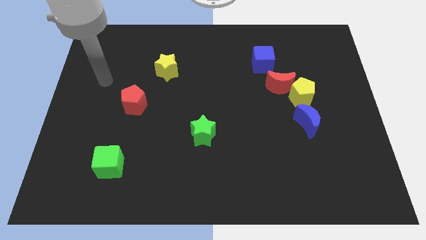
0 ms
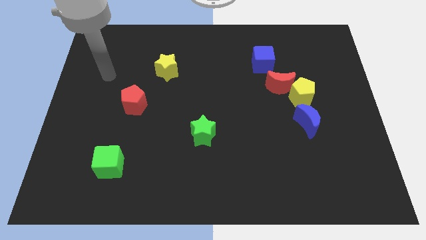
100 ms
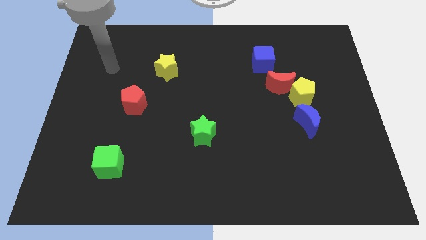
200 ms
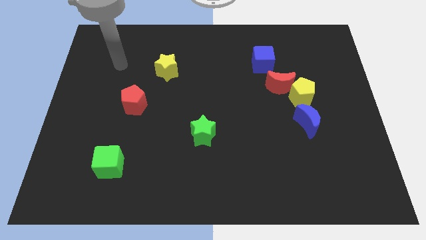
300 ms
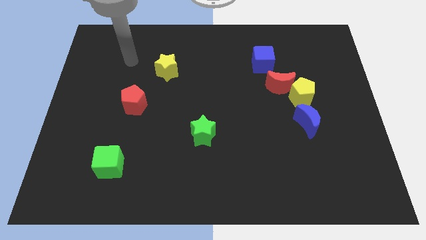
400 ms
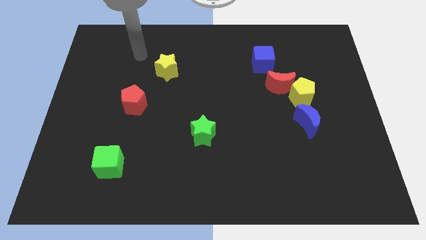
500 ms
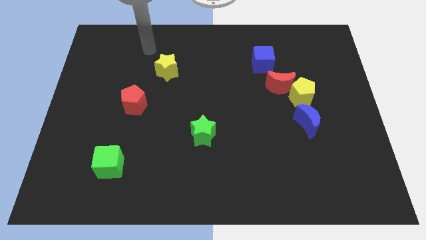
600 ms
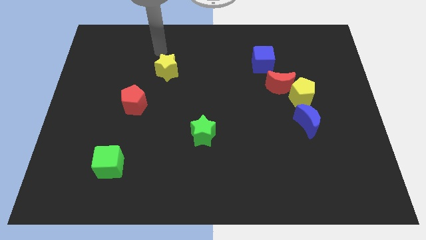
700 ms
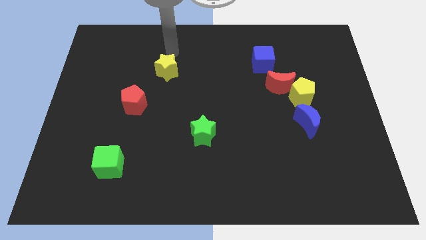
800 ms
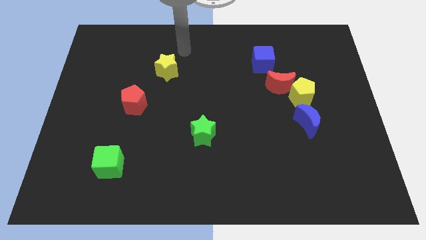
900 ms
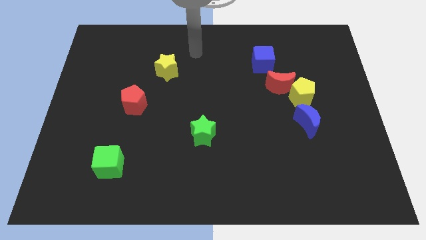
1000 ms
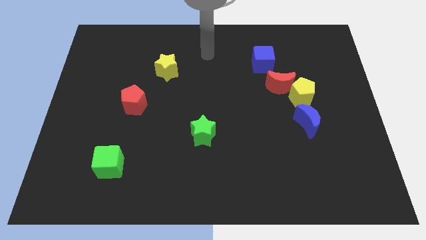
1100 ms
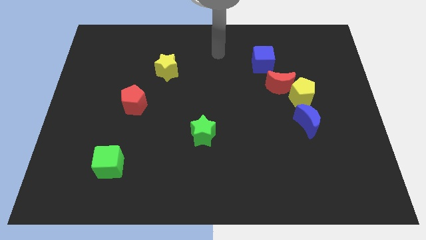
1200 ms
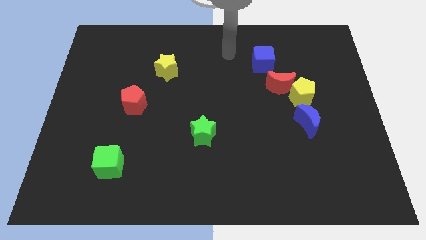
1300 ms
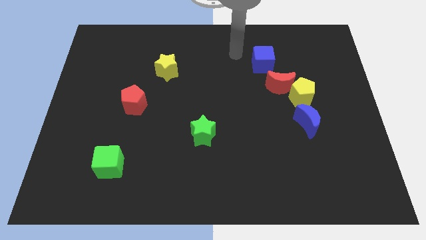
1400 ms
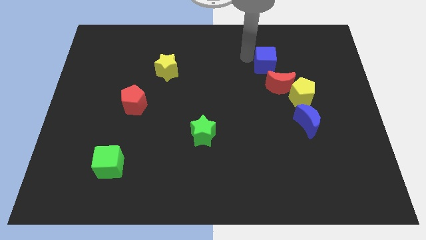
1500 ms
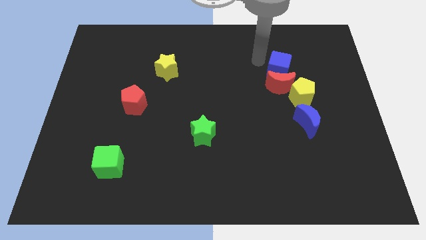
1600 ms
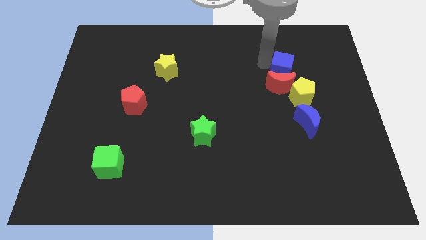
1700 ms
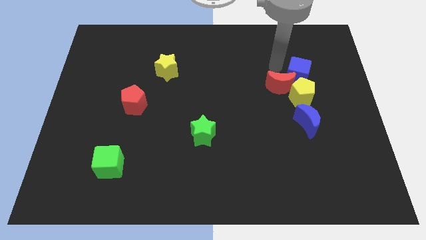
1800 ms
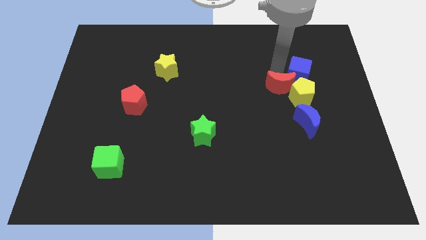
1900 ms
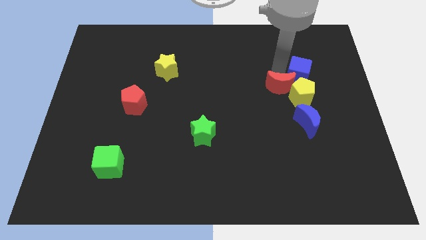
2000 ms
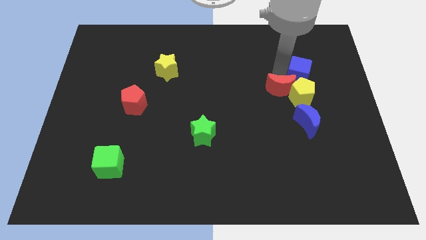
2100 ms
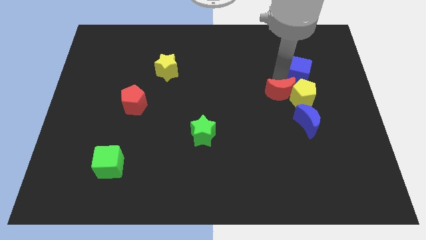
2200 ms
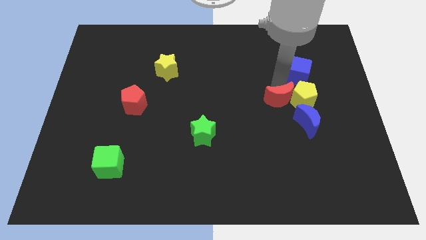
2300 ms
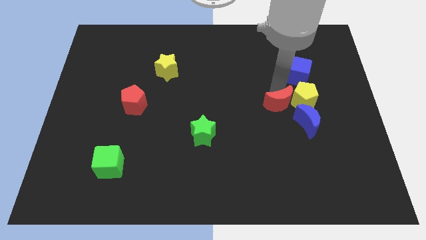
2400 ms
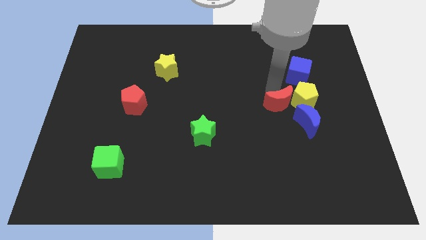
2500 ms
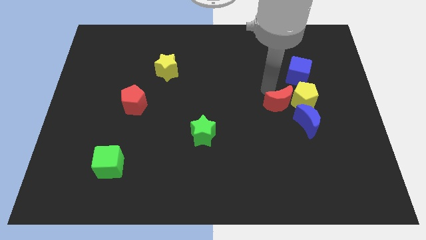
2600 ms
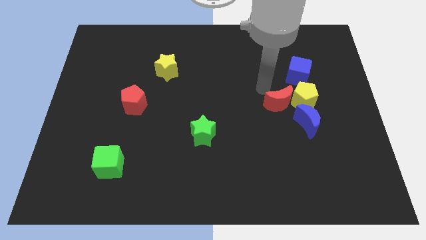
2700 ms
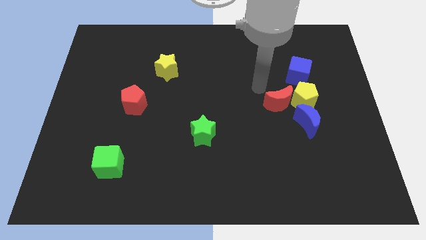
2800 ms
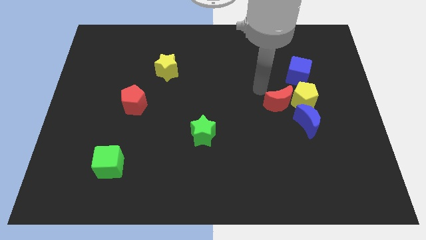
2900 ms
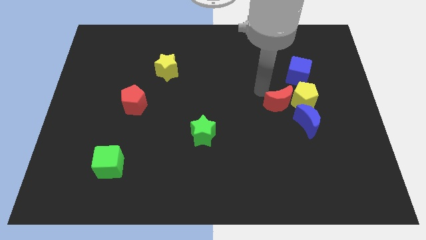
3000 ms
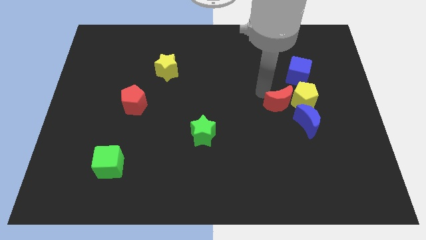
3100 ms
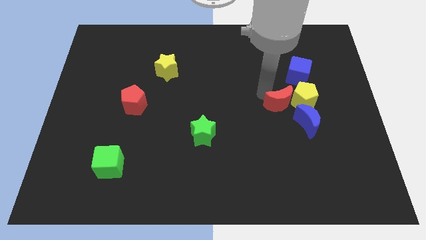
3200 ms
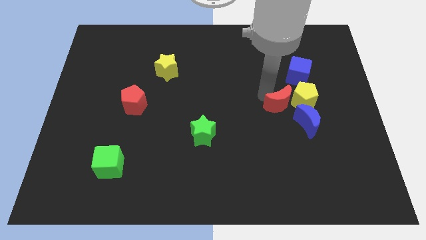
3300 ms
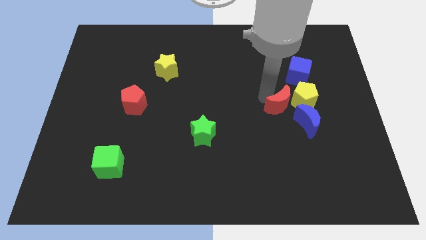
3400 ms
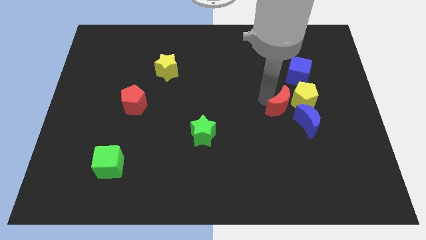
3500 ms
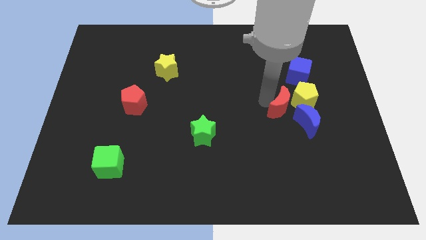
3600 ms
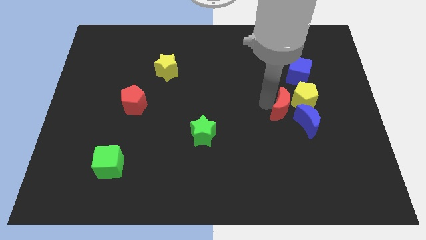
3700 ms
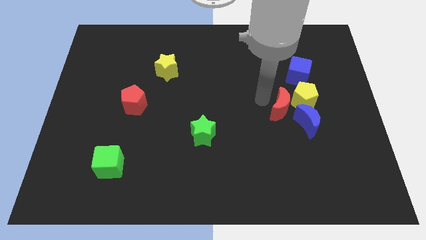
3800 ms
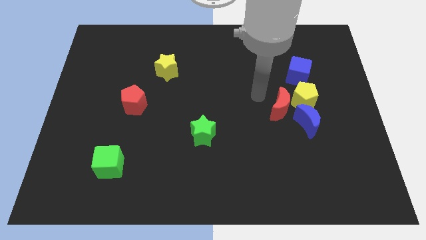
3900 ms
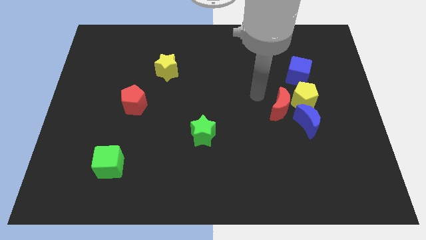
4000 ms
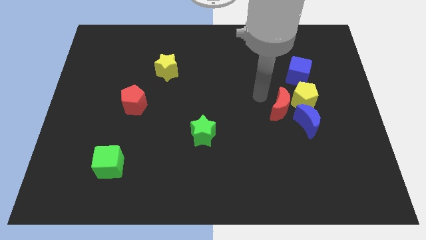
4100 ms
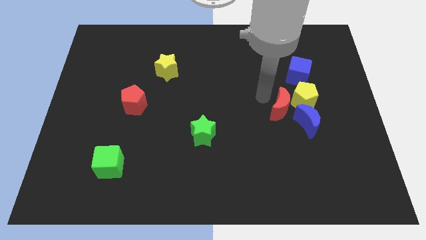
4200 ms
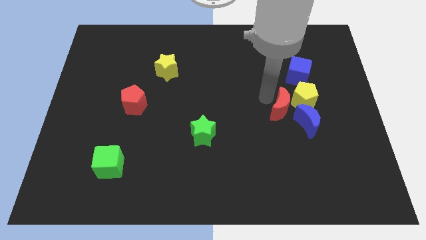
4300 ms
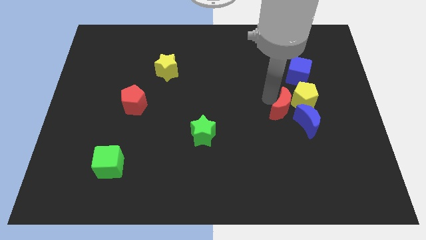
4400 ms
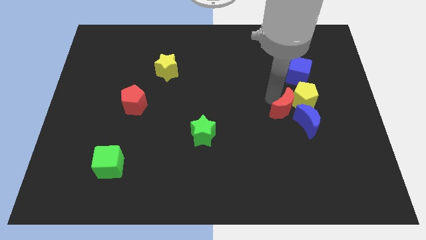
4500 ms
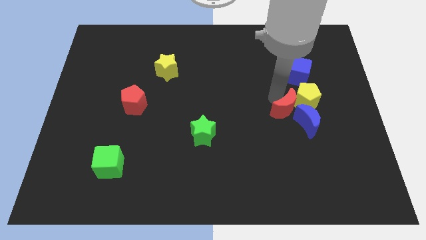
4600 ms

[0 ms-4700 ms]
push the red moon close to the blue moon

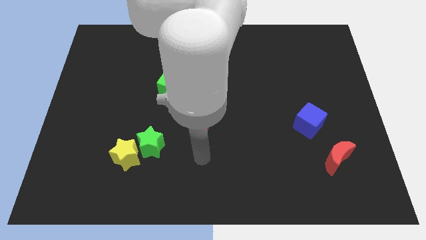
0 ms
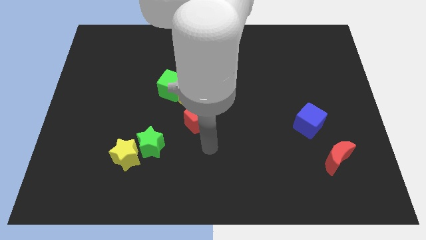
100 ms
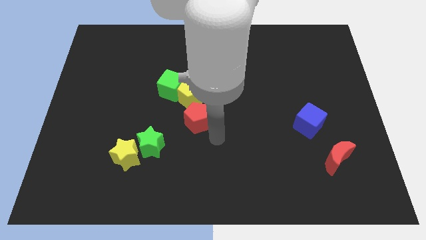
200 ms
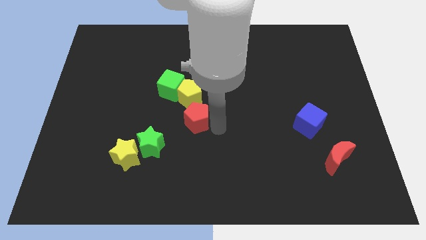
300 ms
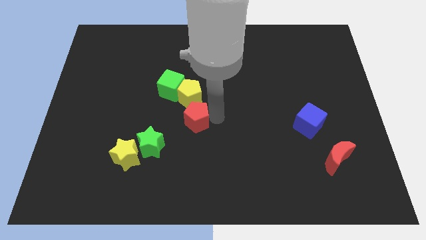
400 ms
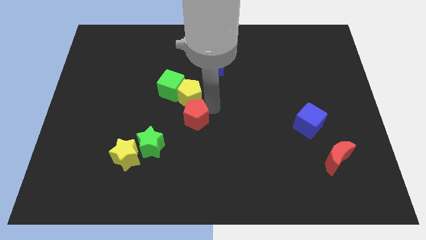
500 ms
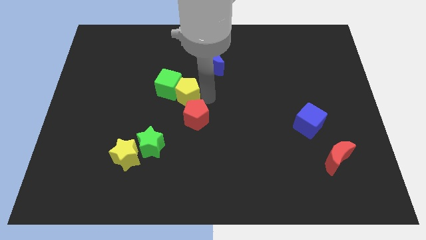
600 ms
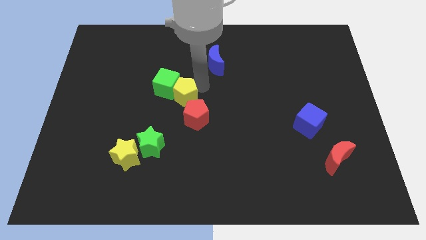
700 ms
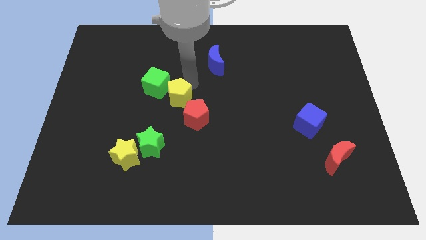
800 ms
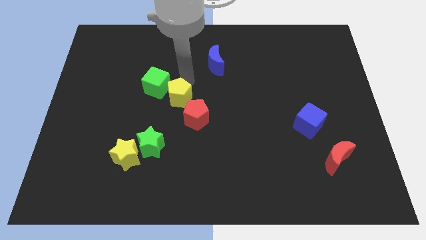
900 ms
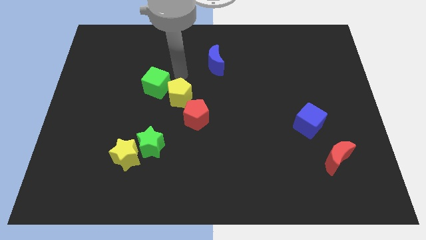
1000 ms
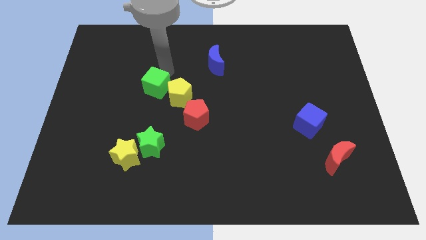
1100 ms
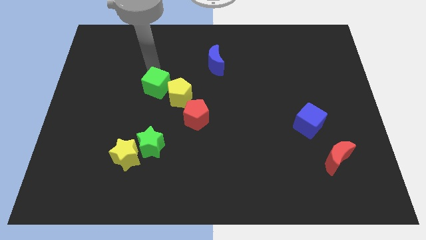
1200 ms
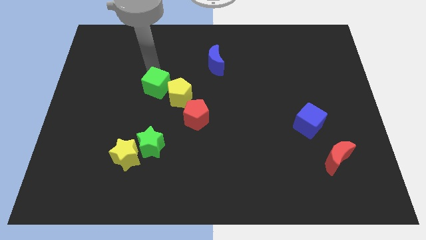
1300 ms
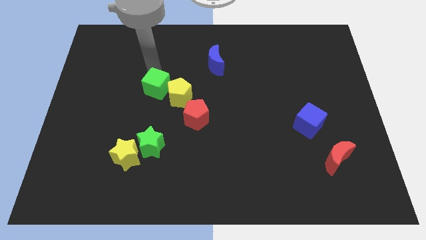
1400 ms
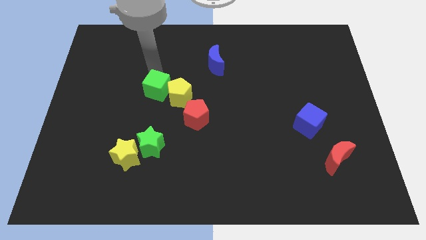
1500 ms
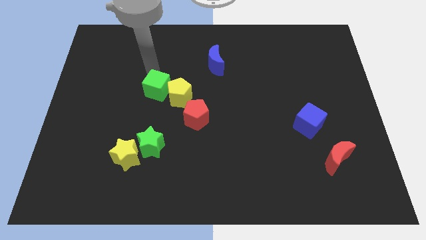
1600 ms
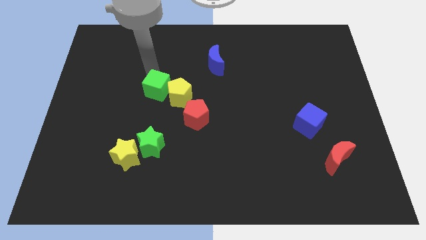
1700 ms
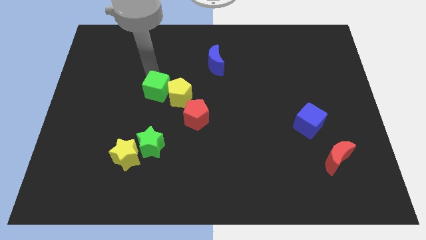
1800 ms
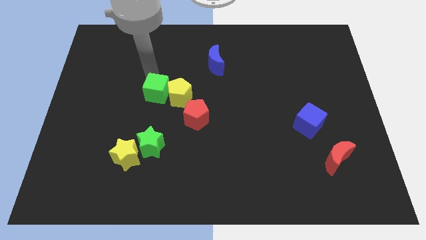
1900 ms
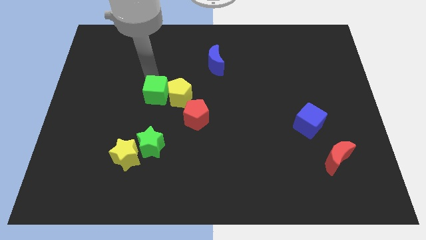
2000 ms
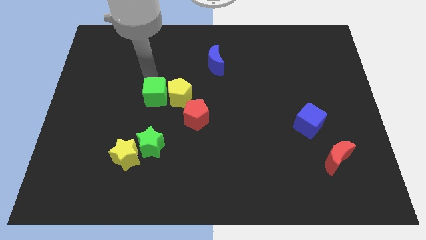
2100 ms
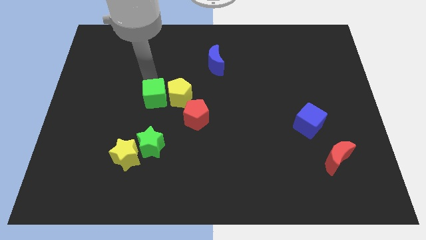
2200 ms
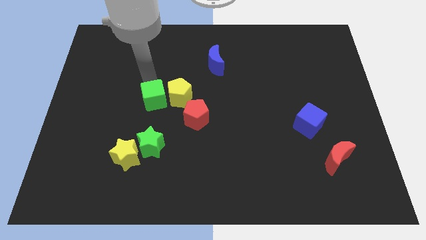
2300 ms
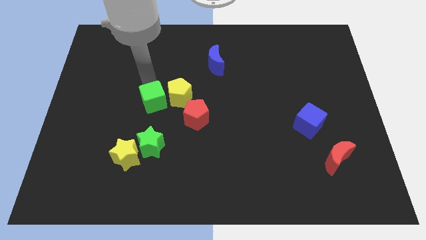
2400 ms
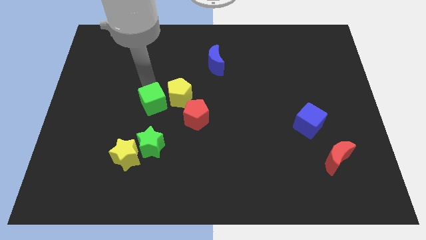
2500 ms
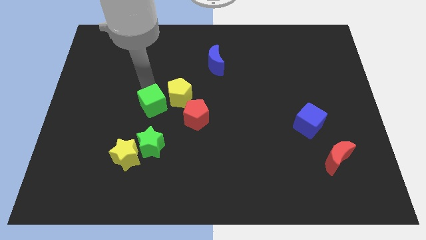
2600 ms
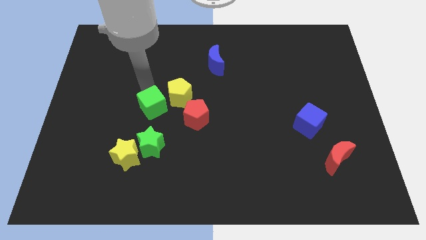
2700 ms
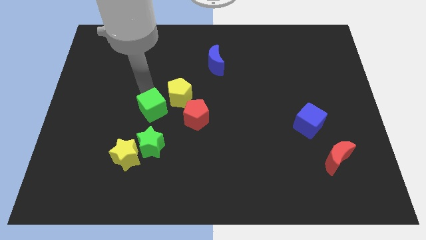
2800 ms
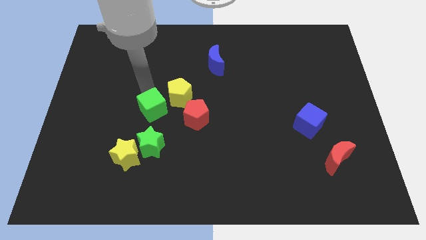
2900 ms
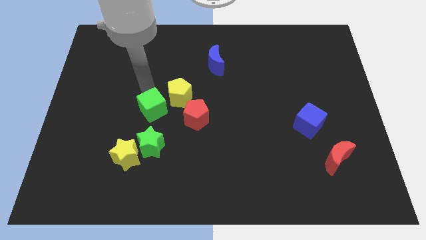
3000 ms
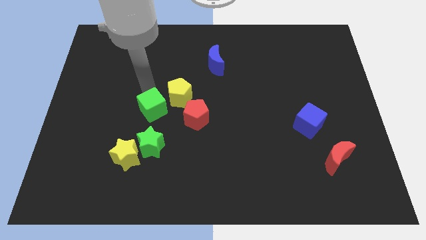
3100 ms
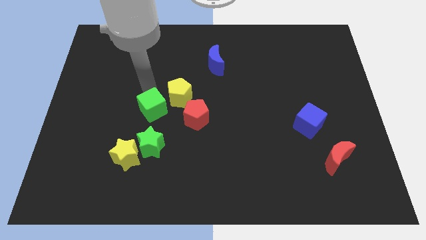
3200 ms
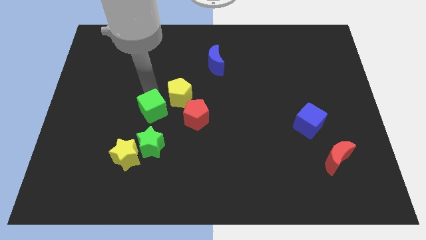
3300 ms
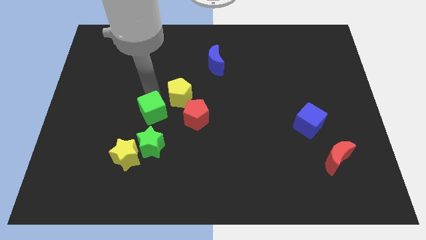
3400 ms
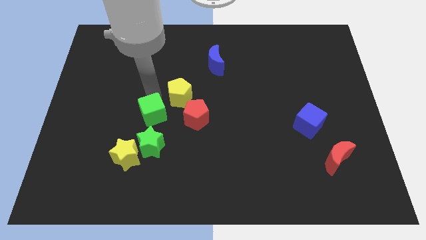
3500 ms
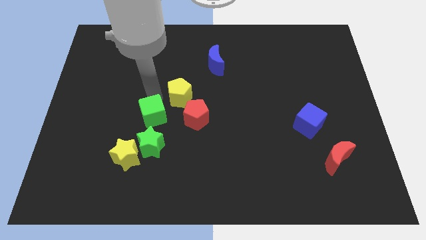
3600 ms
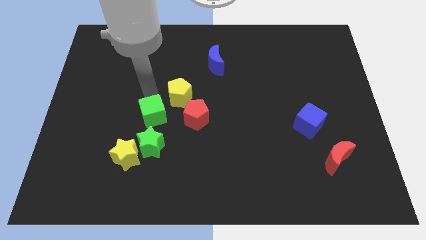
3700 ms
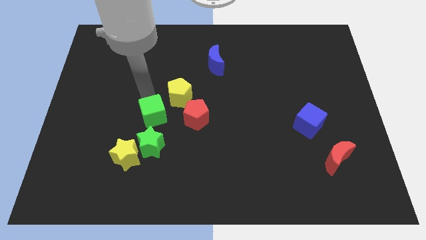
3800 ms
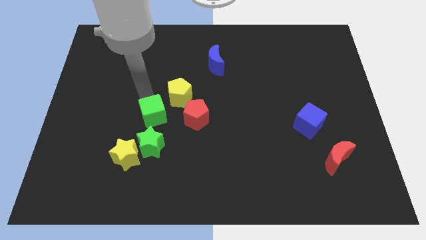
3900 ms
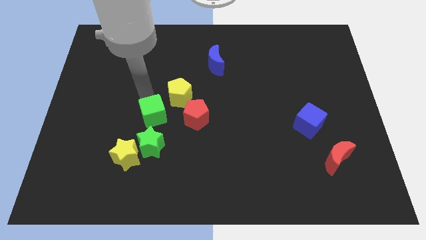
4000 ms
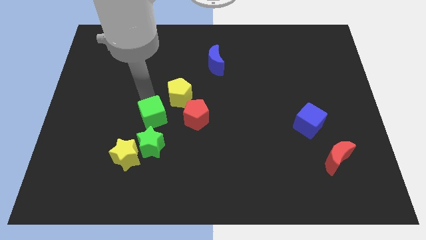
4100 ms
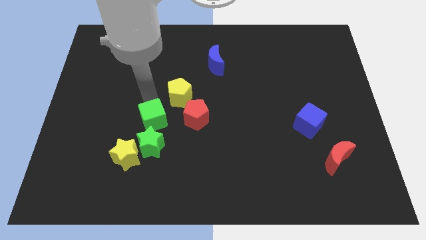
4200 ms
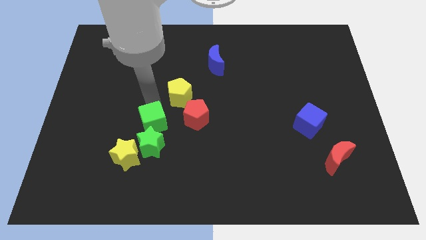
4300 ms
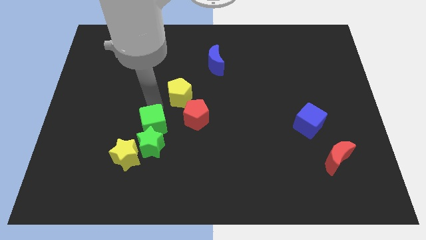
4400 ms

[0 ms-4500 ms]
slide the green cube close to the green star
